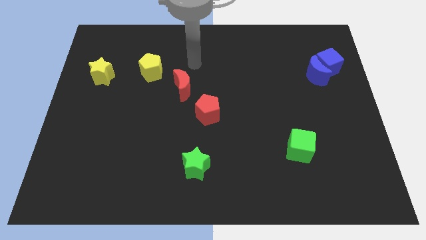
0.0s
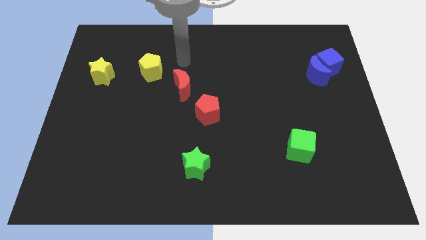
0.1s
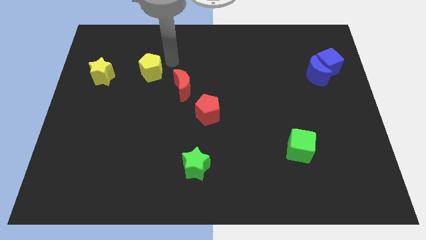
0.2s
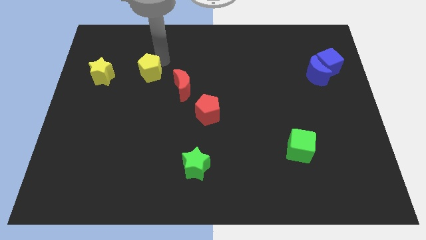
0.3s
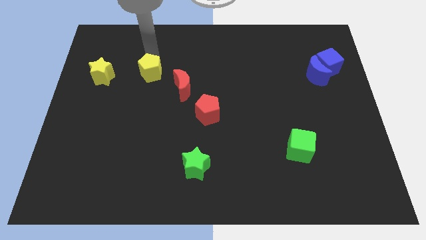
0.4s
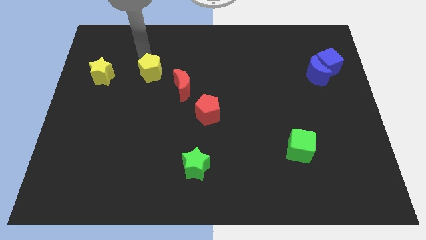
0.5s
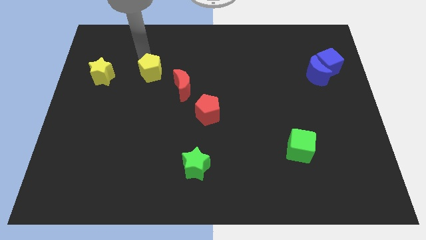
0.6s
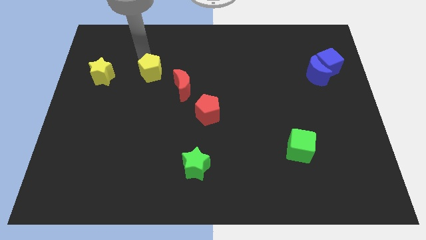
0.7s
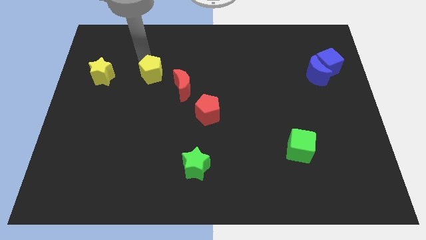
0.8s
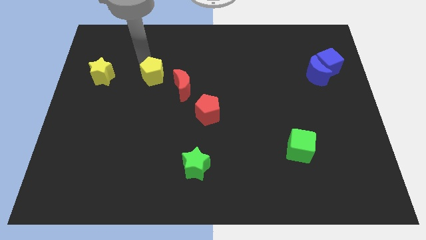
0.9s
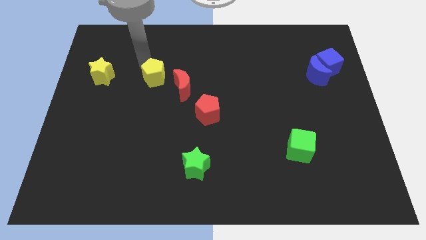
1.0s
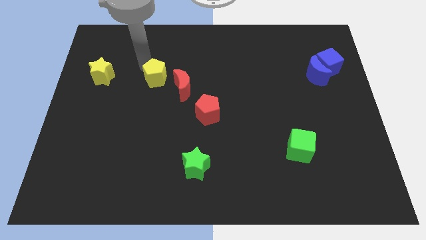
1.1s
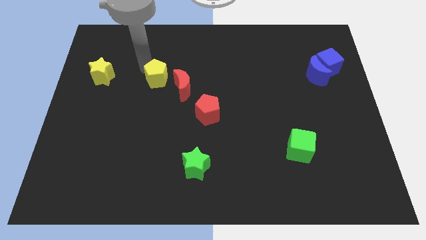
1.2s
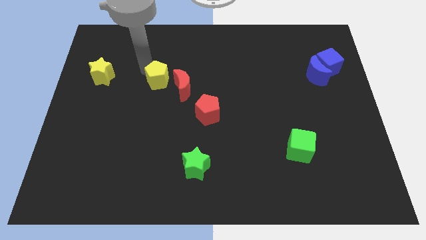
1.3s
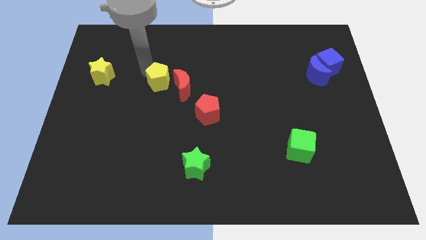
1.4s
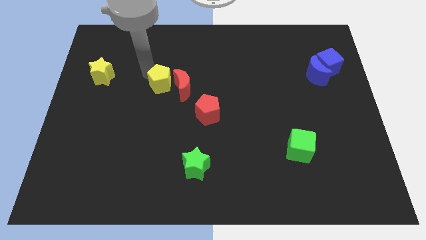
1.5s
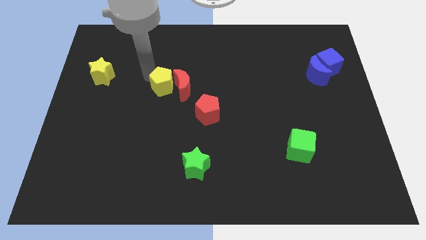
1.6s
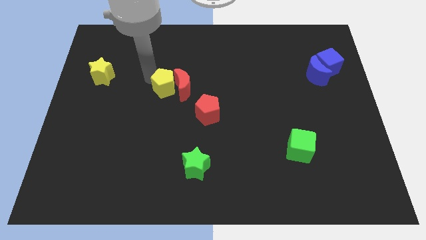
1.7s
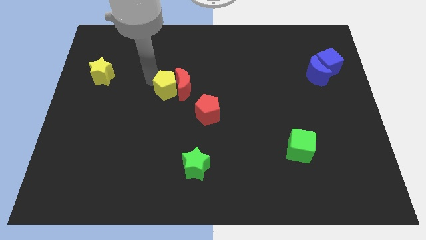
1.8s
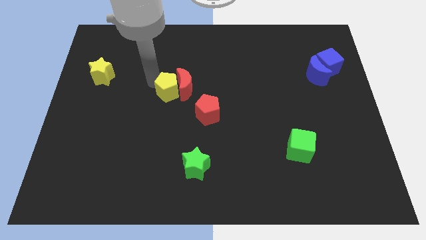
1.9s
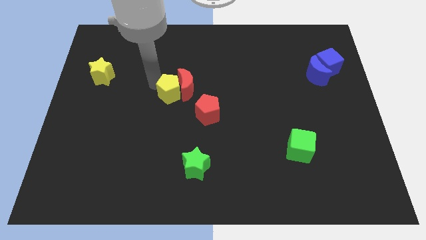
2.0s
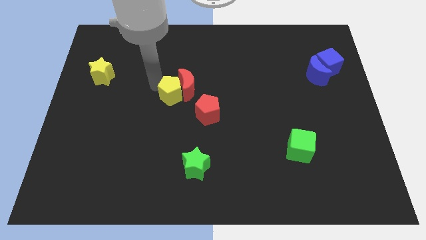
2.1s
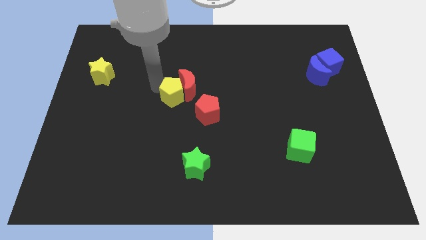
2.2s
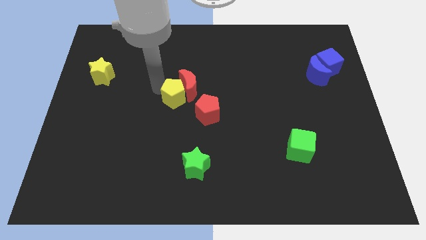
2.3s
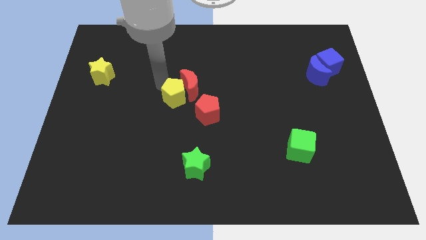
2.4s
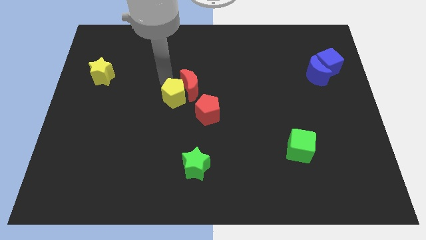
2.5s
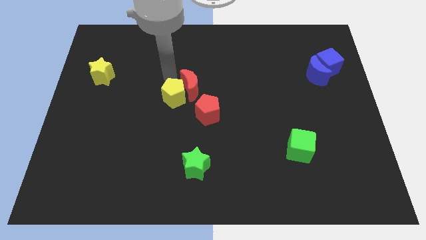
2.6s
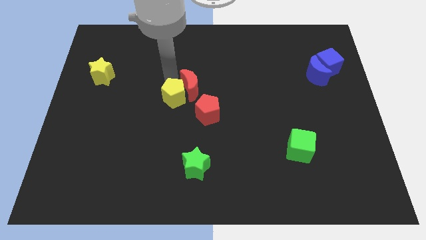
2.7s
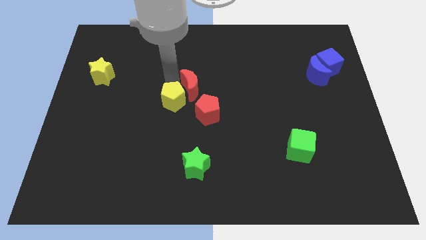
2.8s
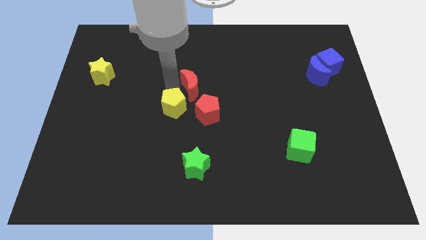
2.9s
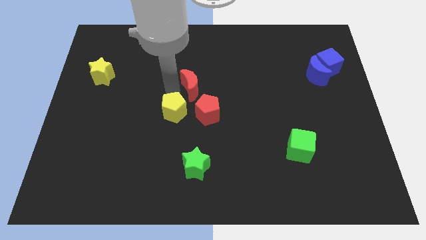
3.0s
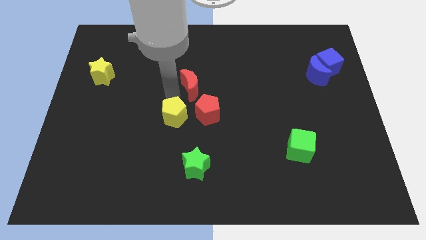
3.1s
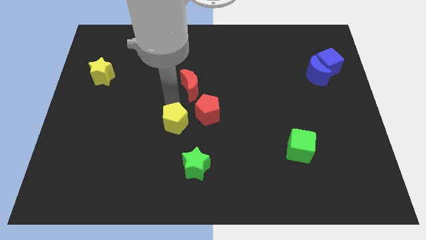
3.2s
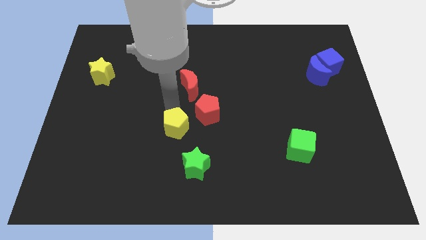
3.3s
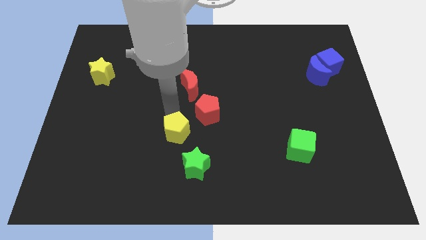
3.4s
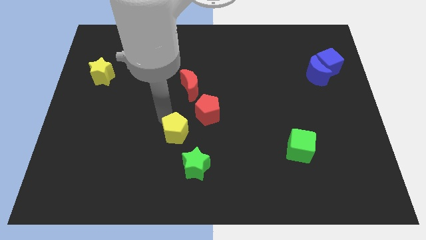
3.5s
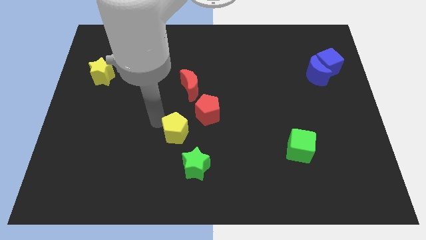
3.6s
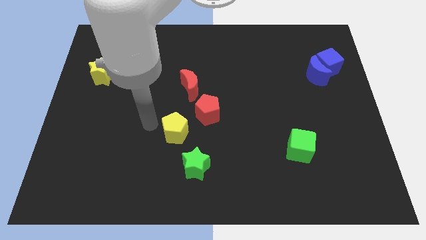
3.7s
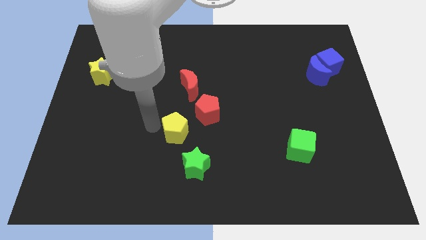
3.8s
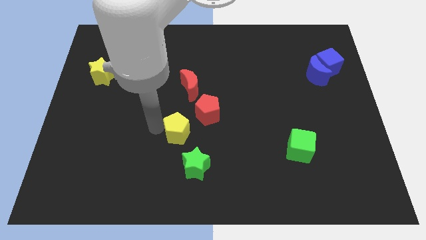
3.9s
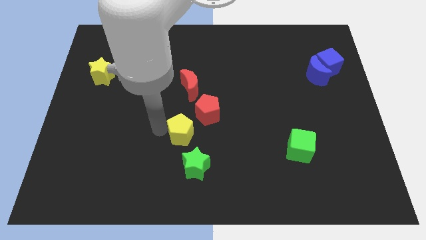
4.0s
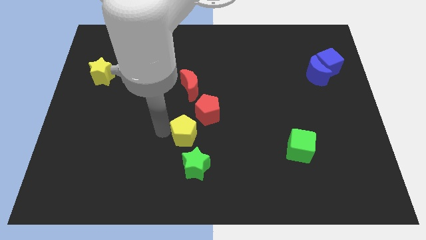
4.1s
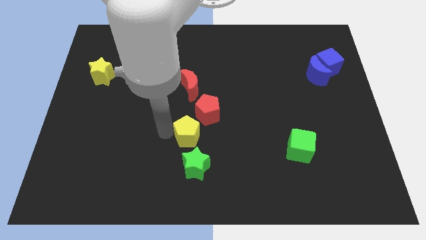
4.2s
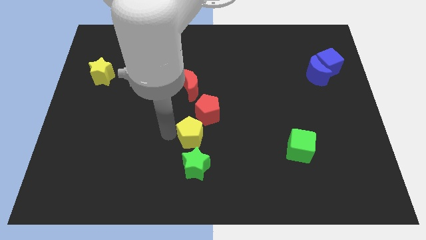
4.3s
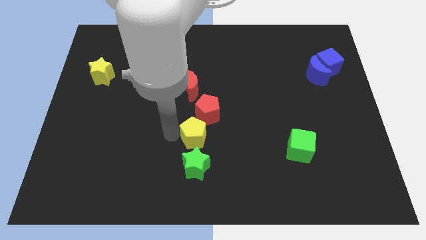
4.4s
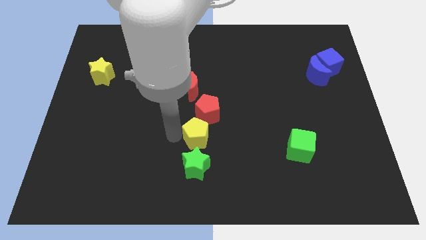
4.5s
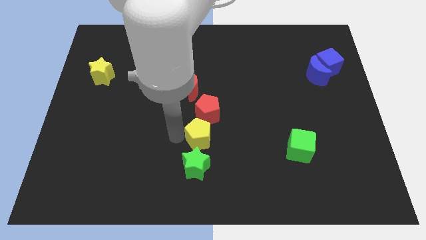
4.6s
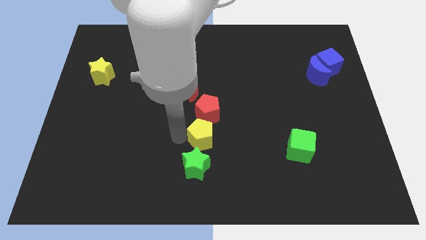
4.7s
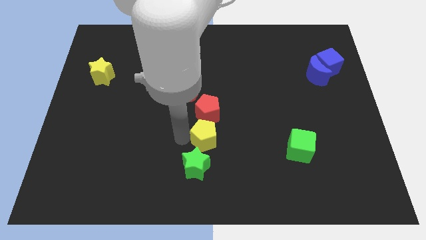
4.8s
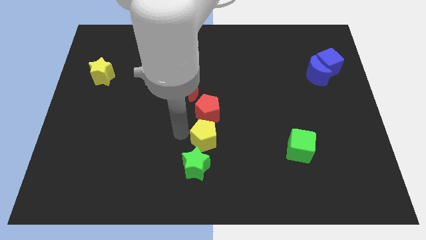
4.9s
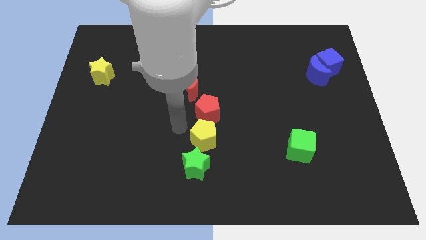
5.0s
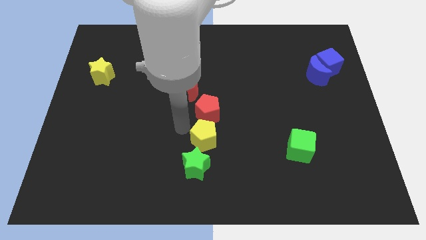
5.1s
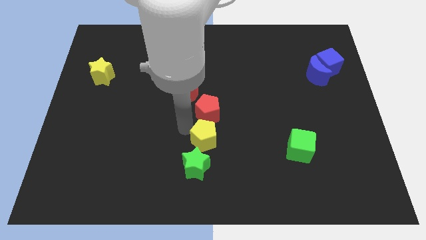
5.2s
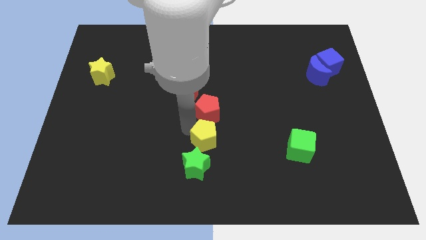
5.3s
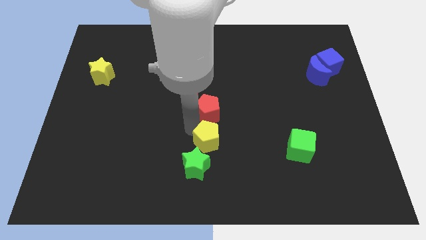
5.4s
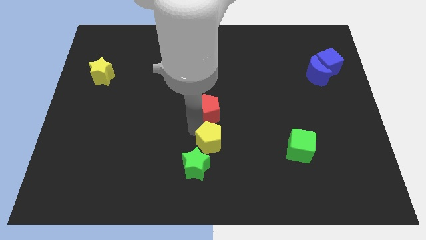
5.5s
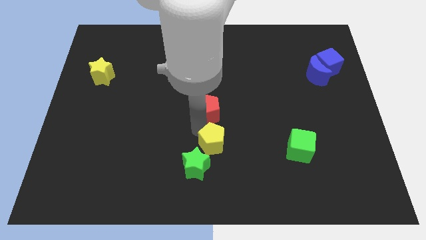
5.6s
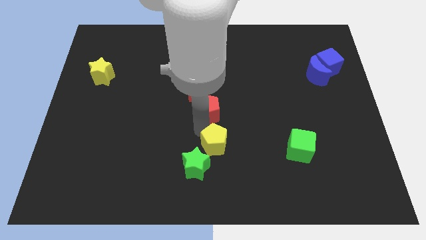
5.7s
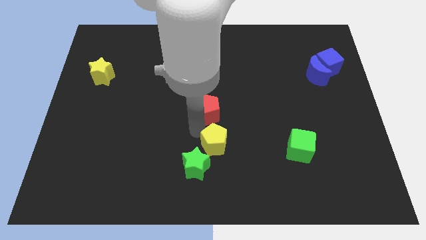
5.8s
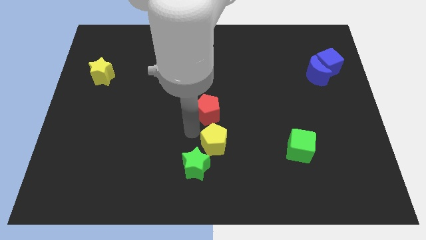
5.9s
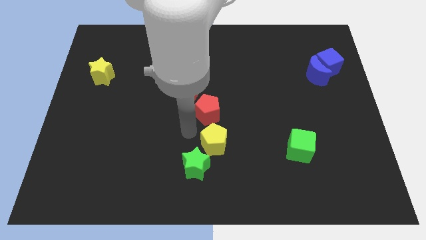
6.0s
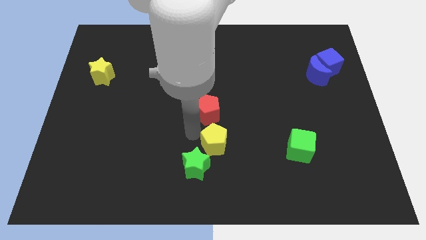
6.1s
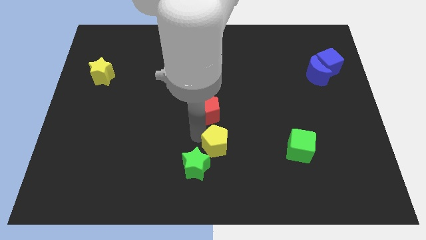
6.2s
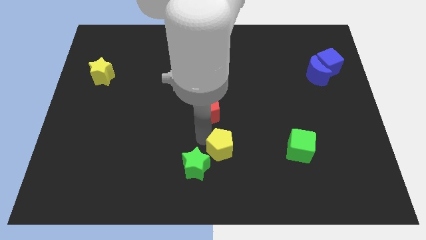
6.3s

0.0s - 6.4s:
put the yellow pentagon to the right side of the green star

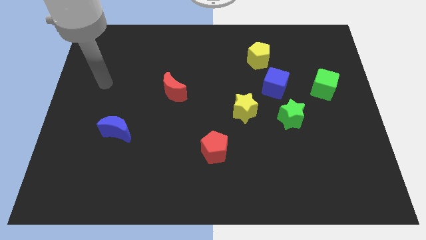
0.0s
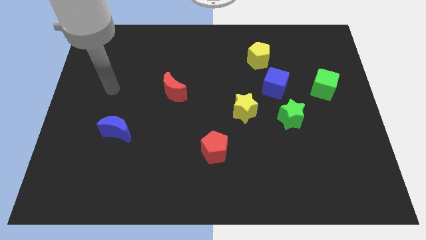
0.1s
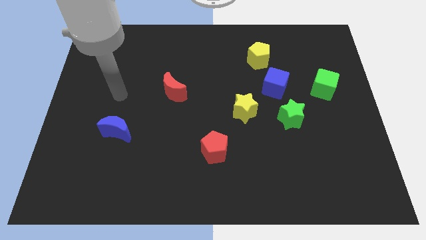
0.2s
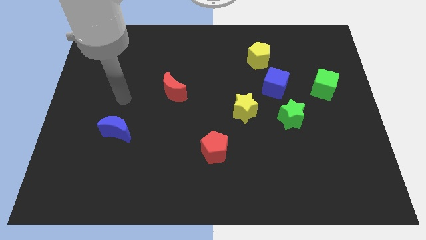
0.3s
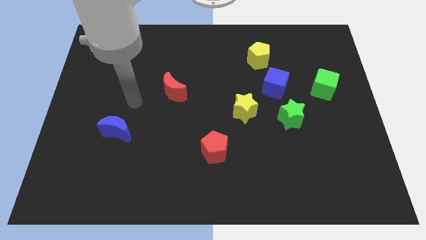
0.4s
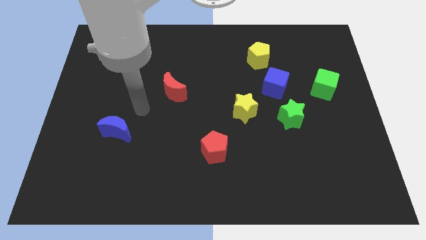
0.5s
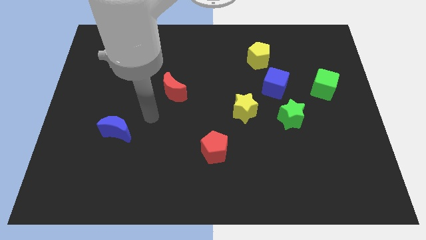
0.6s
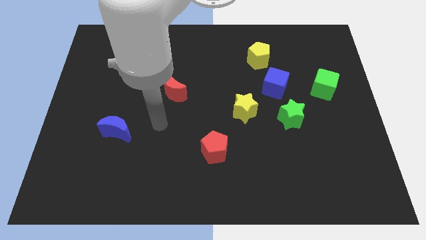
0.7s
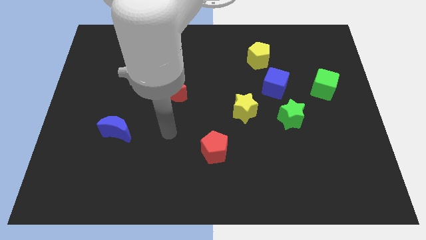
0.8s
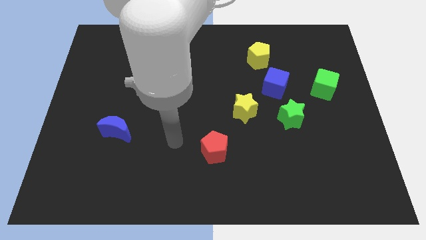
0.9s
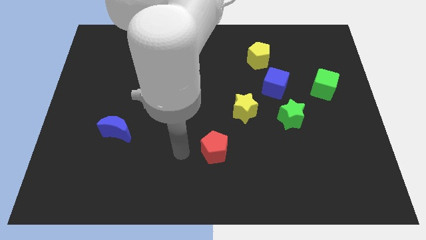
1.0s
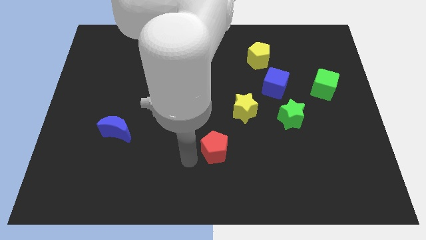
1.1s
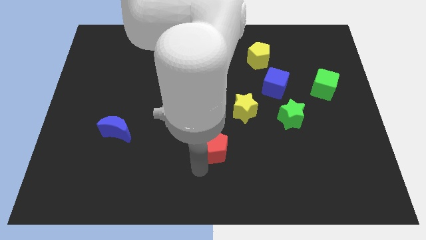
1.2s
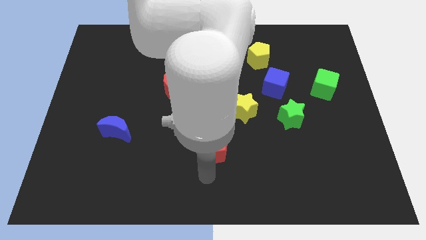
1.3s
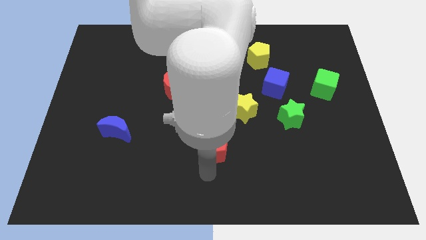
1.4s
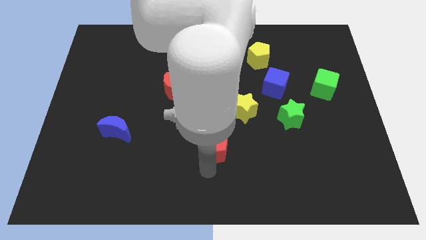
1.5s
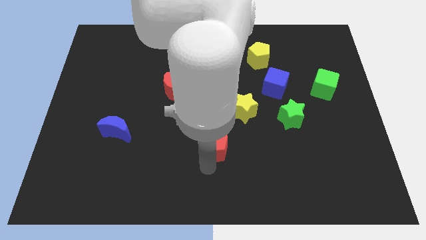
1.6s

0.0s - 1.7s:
move the red pentagon to the bottom left side of the yellow star
